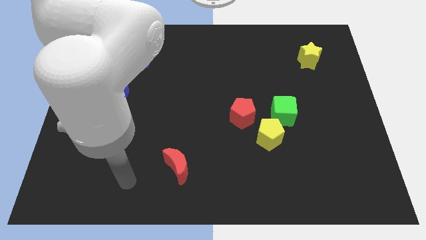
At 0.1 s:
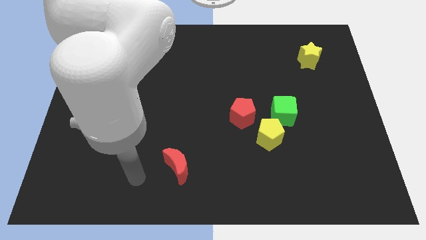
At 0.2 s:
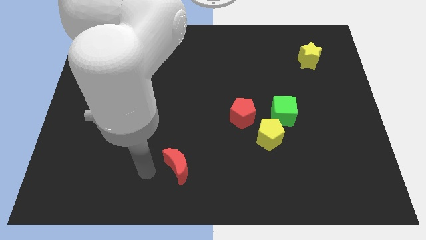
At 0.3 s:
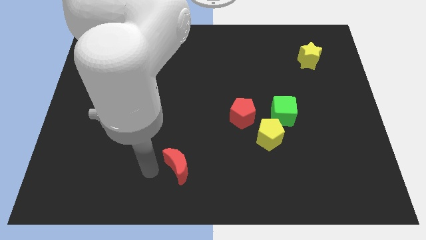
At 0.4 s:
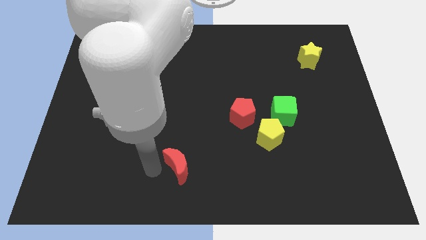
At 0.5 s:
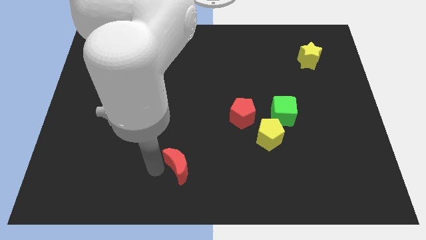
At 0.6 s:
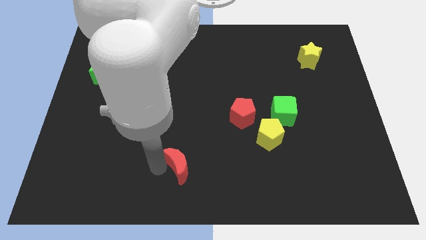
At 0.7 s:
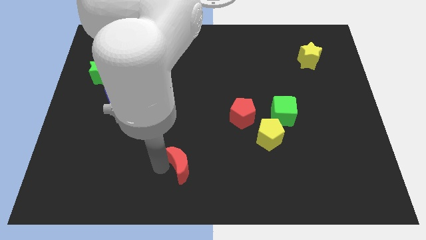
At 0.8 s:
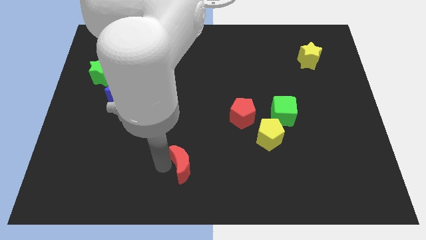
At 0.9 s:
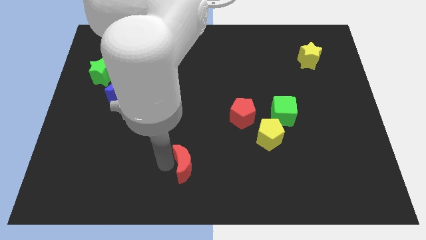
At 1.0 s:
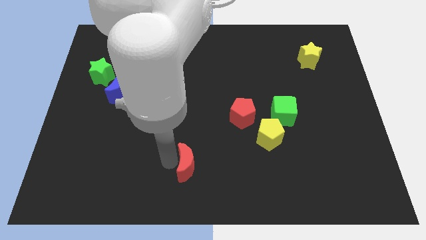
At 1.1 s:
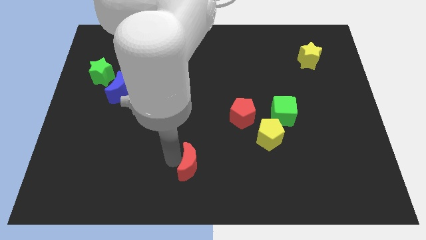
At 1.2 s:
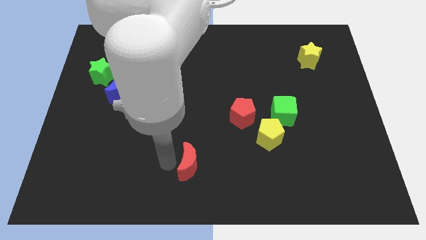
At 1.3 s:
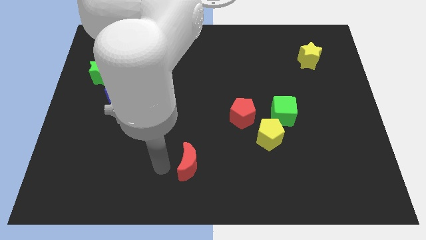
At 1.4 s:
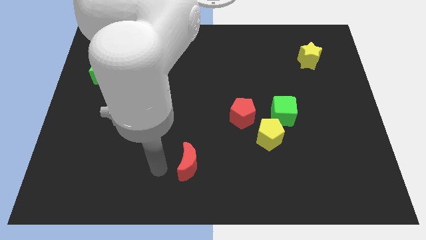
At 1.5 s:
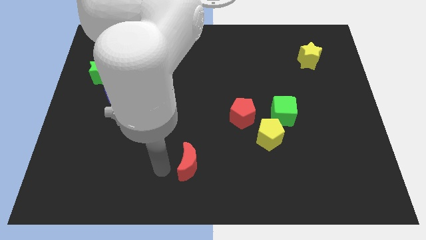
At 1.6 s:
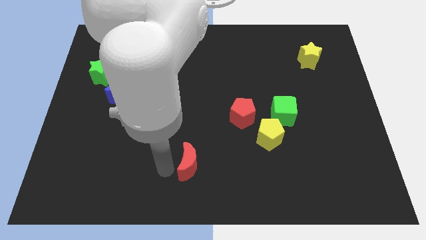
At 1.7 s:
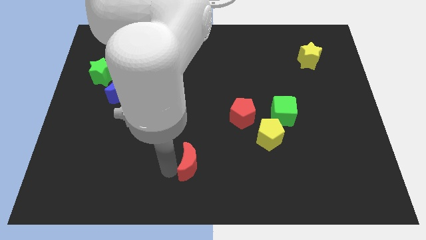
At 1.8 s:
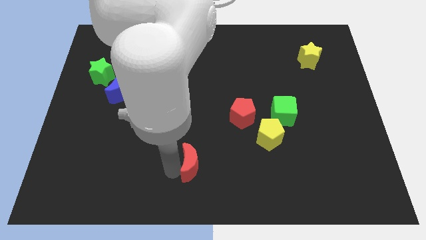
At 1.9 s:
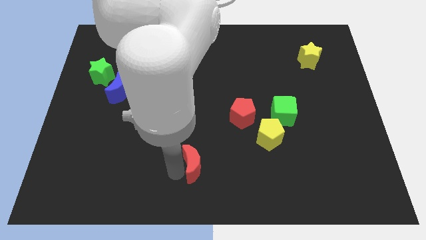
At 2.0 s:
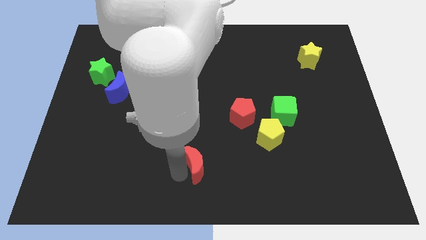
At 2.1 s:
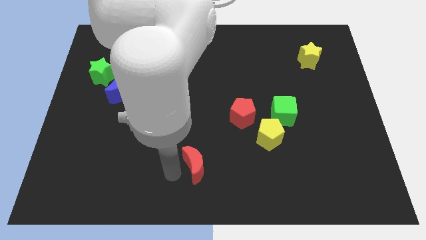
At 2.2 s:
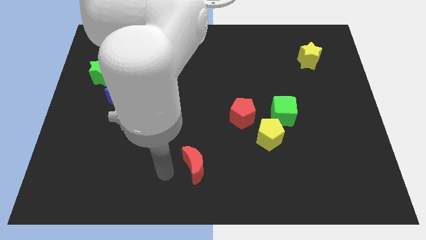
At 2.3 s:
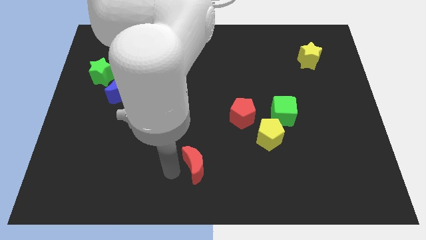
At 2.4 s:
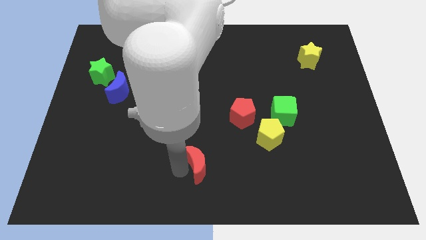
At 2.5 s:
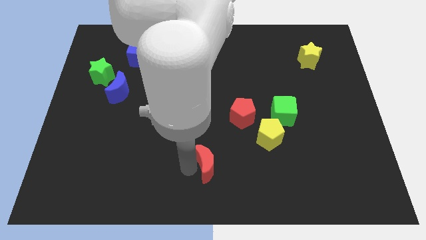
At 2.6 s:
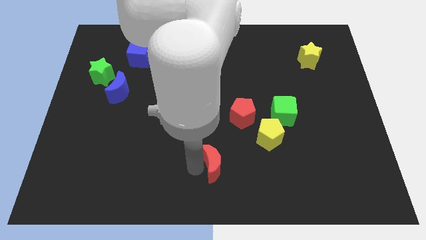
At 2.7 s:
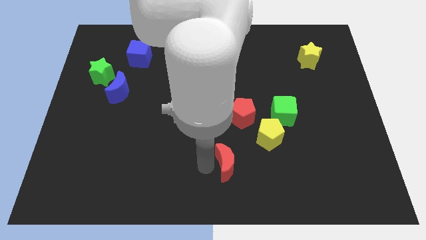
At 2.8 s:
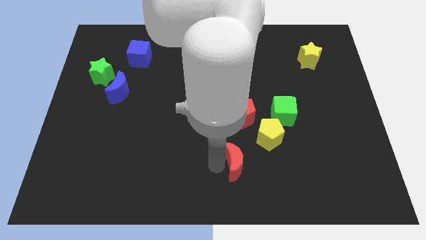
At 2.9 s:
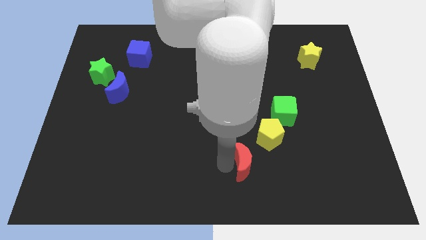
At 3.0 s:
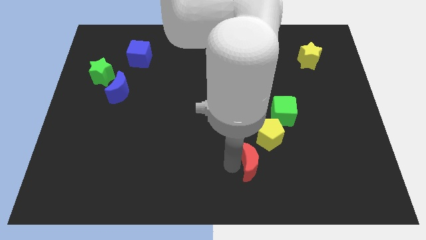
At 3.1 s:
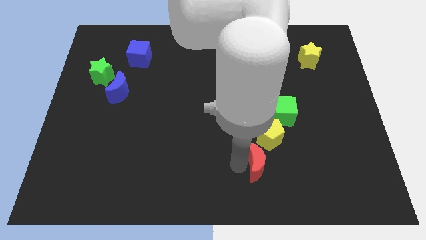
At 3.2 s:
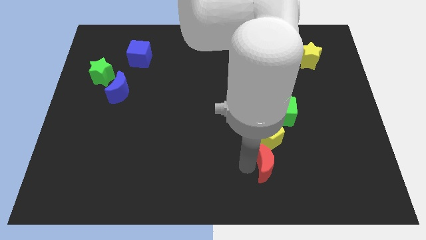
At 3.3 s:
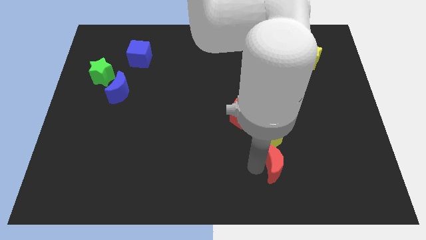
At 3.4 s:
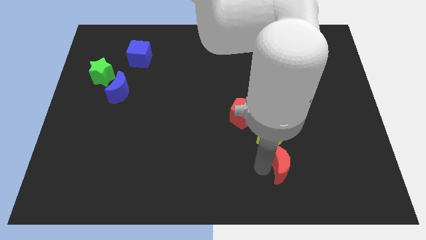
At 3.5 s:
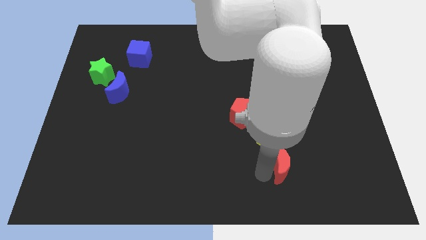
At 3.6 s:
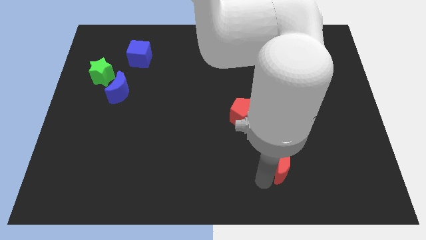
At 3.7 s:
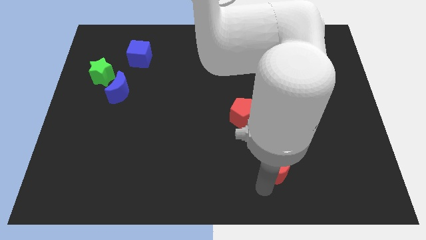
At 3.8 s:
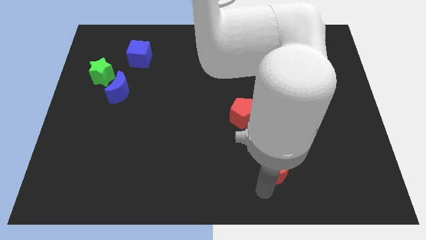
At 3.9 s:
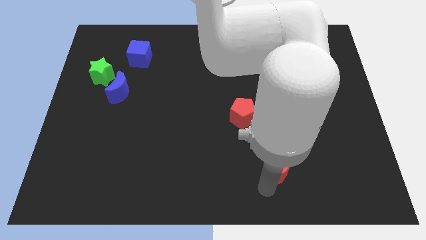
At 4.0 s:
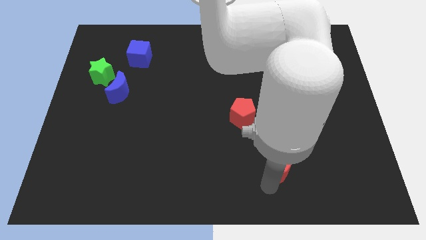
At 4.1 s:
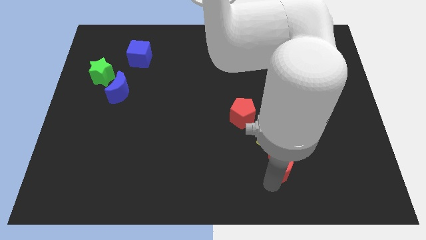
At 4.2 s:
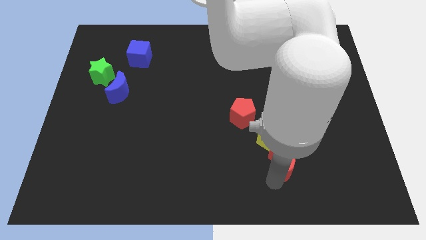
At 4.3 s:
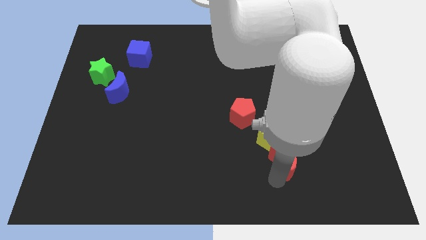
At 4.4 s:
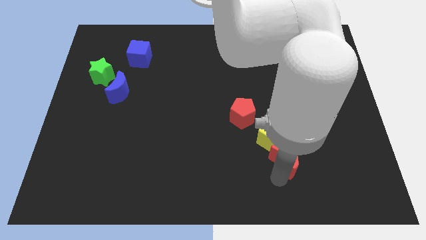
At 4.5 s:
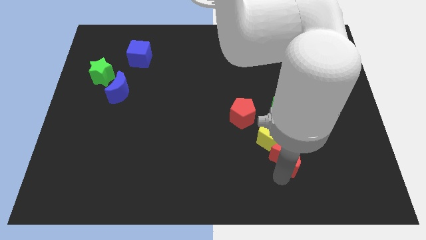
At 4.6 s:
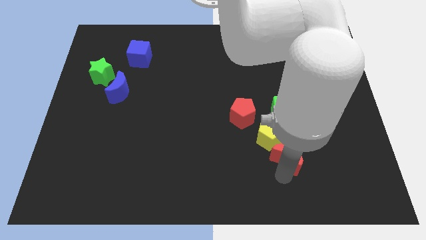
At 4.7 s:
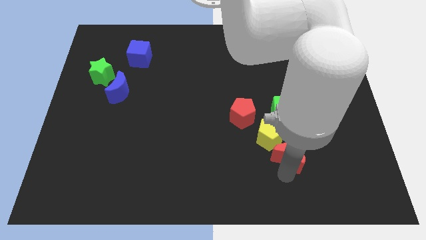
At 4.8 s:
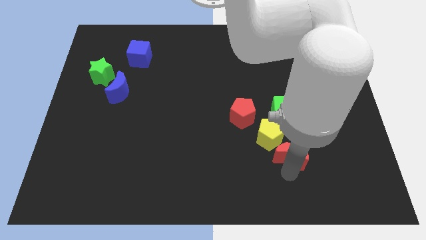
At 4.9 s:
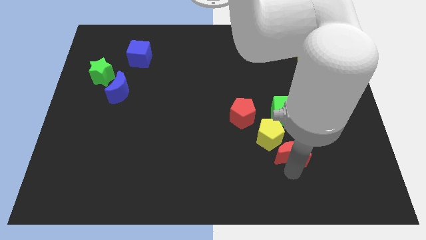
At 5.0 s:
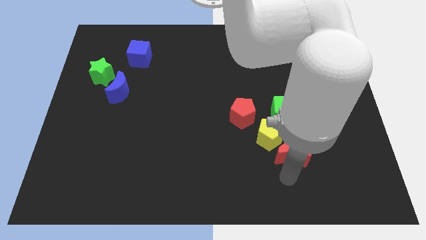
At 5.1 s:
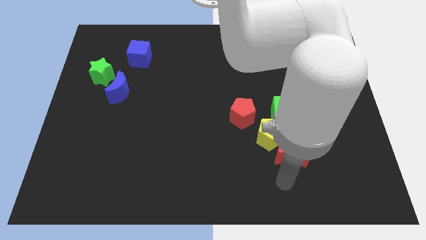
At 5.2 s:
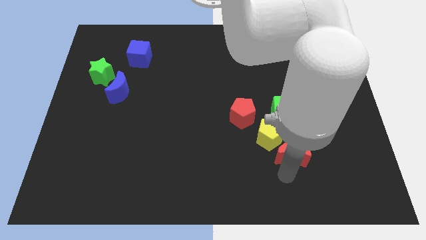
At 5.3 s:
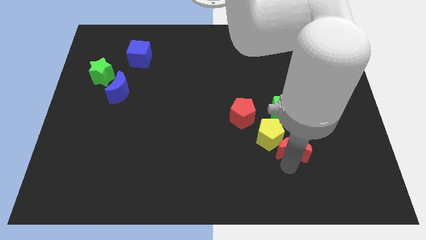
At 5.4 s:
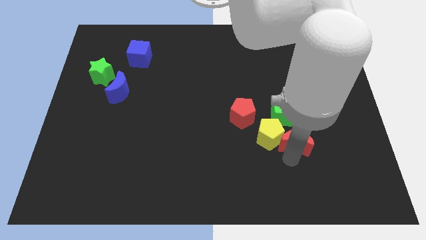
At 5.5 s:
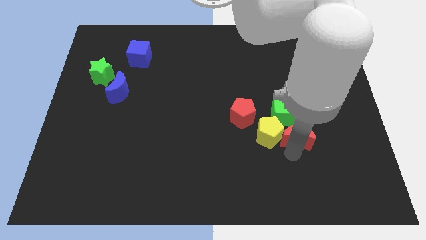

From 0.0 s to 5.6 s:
move the red moon diagonally up and to the right of the yellow pentagon

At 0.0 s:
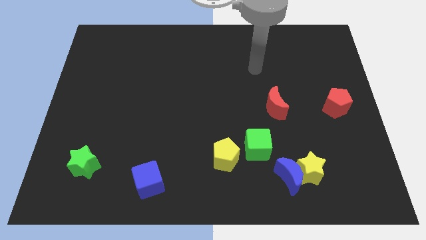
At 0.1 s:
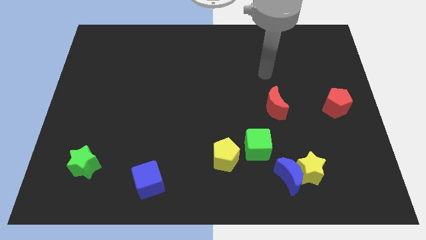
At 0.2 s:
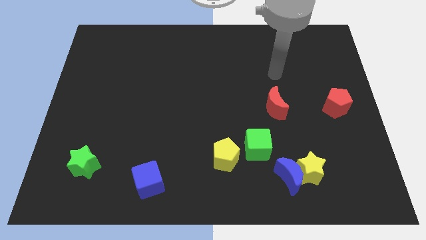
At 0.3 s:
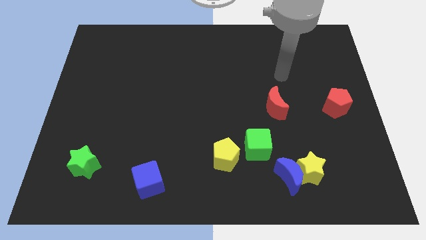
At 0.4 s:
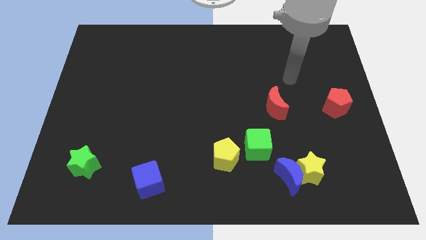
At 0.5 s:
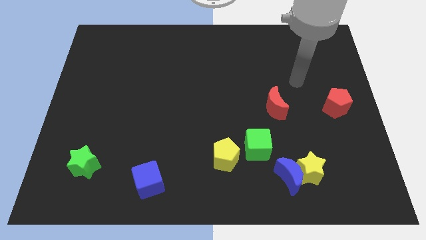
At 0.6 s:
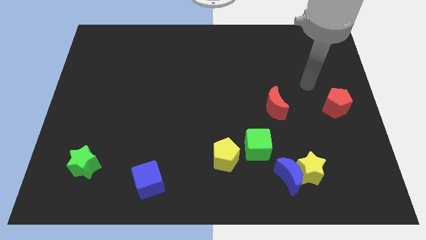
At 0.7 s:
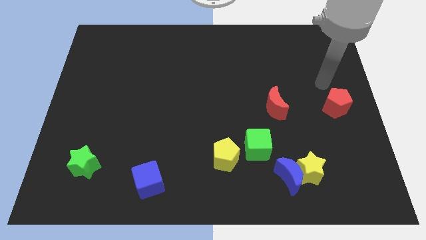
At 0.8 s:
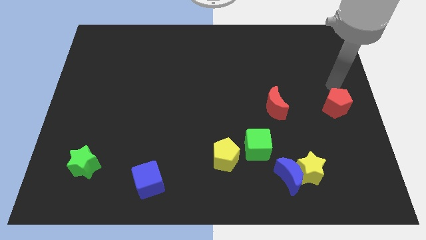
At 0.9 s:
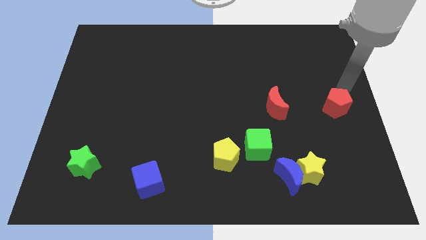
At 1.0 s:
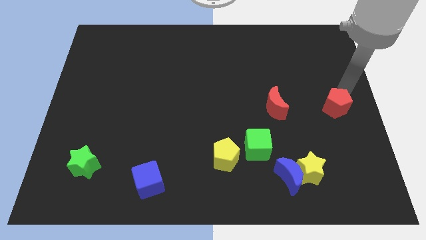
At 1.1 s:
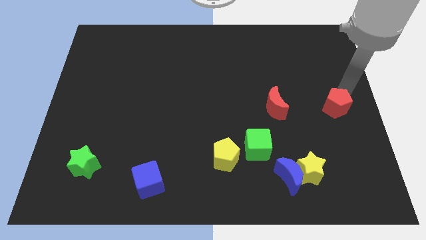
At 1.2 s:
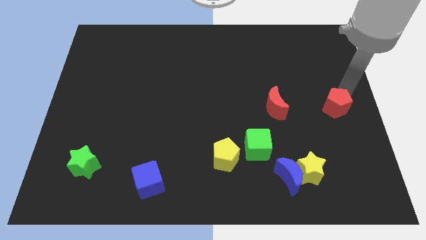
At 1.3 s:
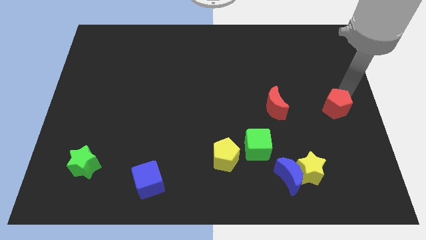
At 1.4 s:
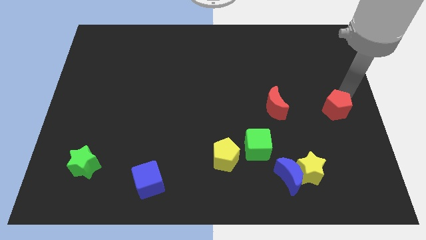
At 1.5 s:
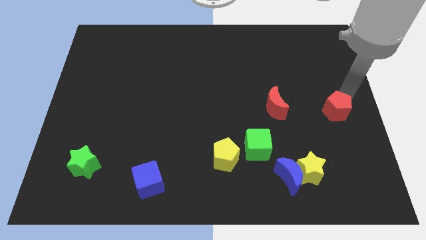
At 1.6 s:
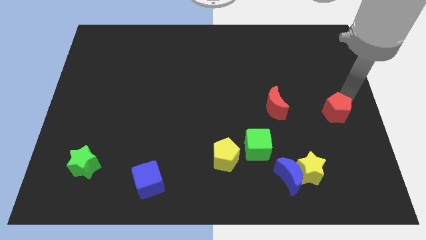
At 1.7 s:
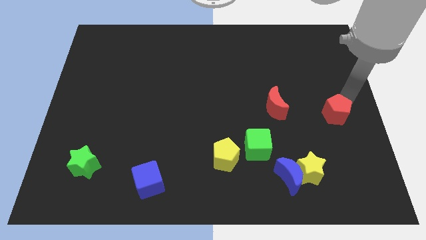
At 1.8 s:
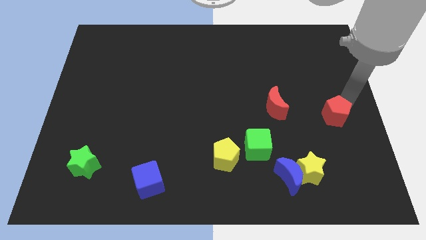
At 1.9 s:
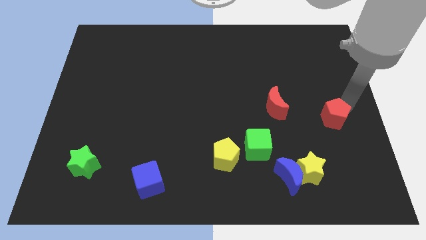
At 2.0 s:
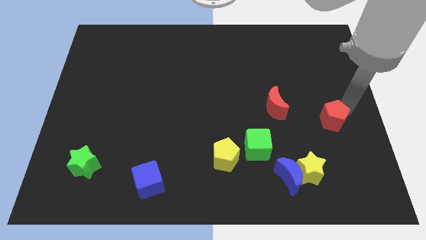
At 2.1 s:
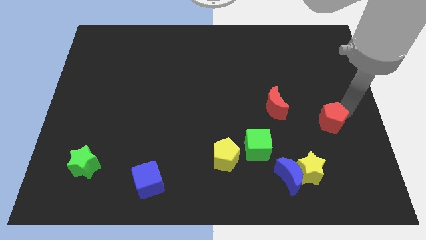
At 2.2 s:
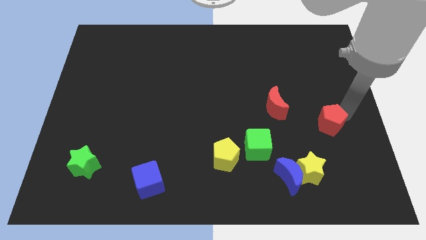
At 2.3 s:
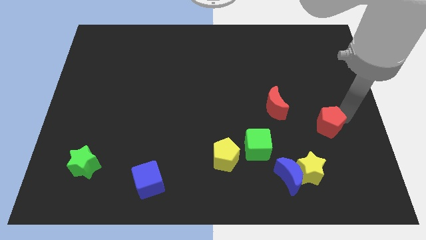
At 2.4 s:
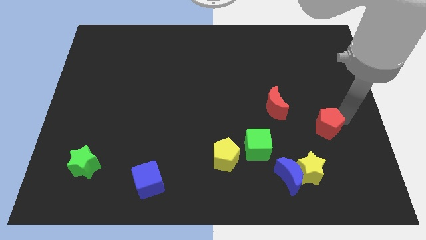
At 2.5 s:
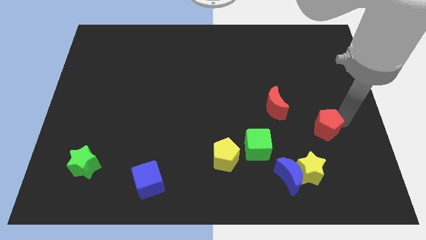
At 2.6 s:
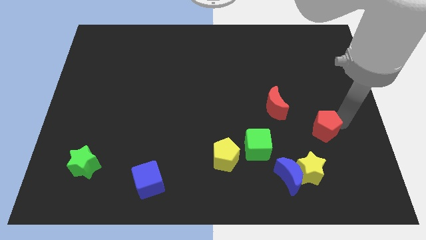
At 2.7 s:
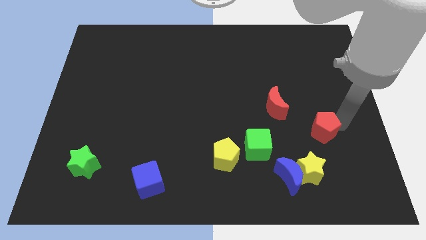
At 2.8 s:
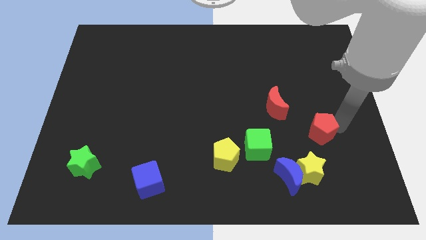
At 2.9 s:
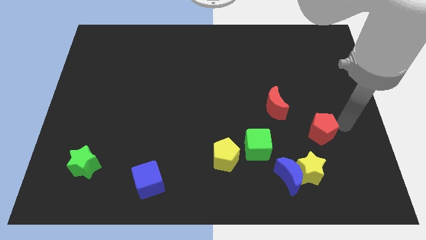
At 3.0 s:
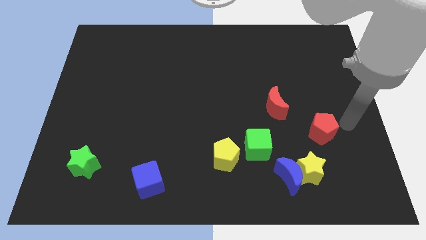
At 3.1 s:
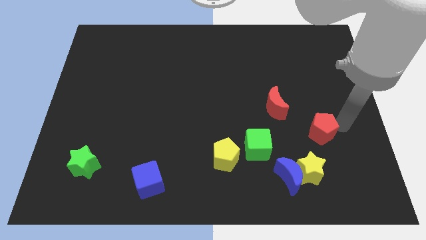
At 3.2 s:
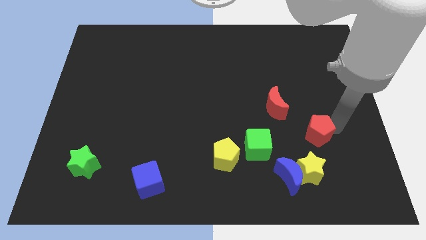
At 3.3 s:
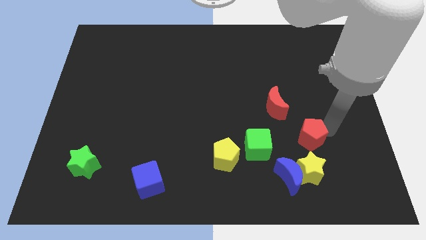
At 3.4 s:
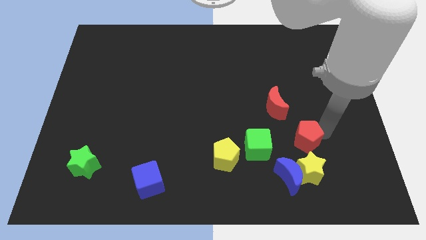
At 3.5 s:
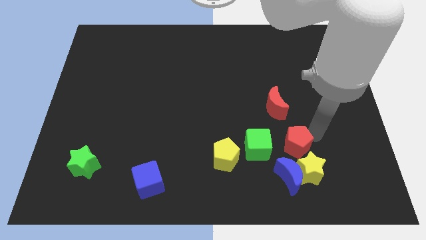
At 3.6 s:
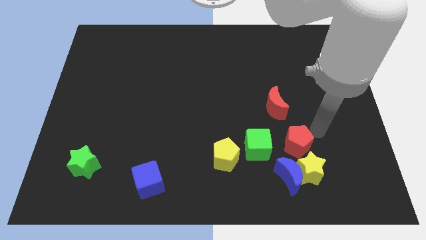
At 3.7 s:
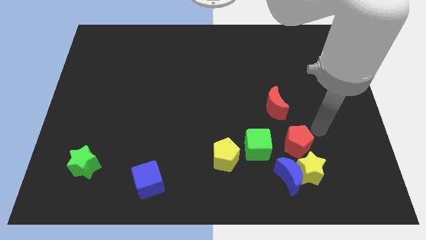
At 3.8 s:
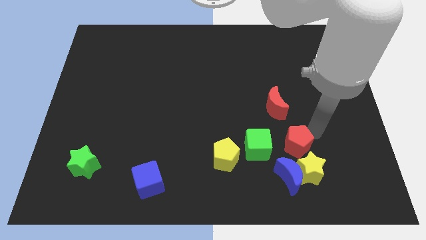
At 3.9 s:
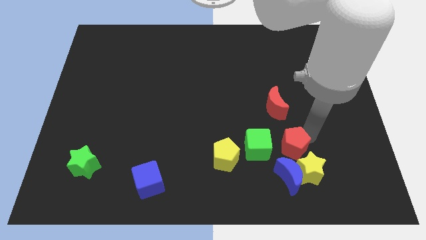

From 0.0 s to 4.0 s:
push the red pentagon right of the yellow pentagon
